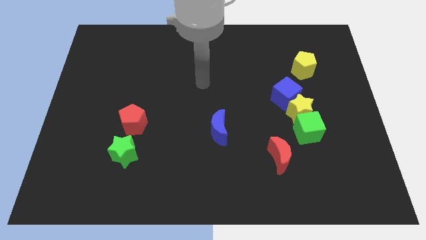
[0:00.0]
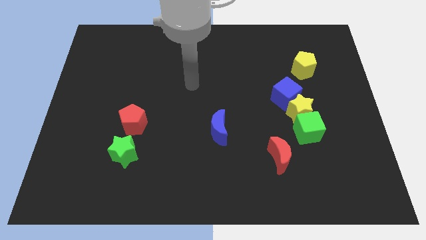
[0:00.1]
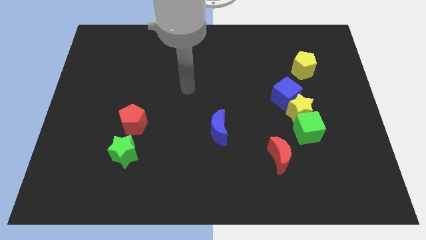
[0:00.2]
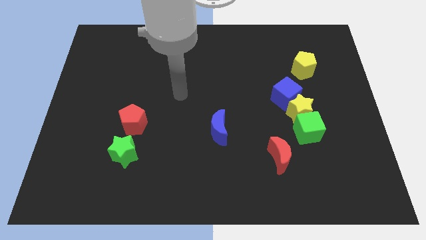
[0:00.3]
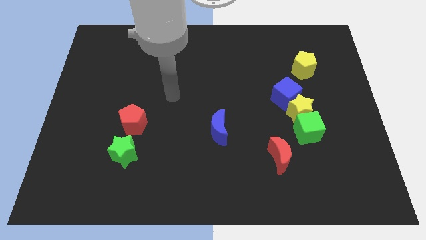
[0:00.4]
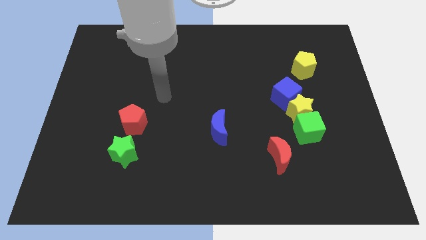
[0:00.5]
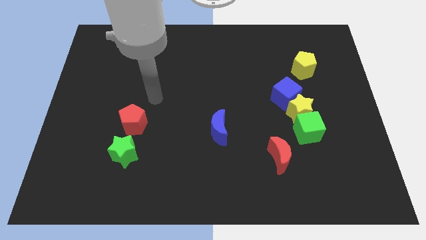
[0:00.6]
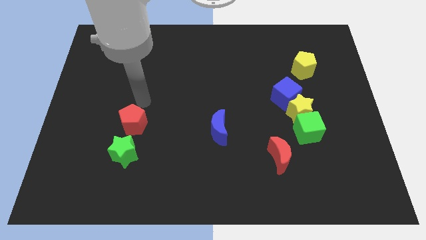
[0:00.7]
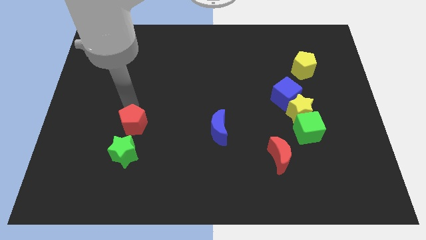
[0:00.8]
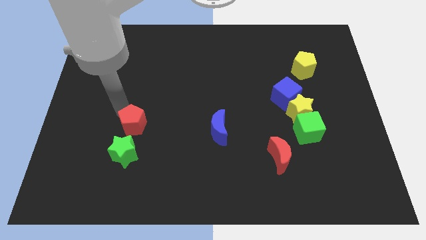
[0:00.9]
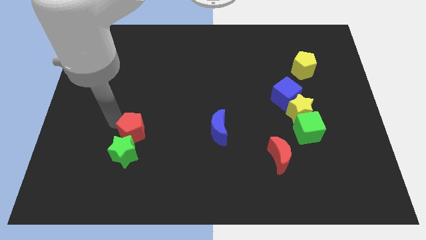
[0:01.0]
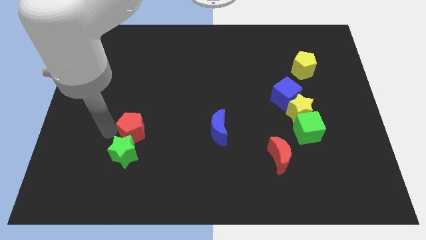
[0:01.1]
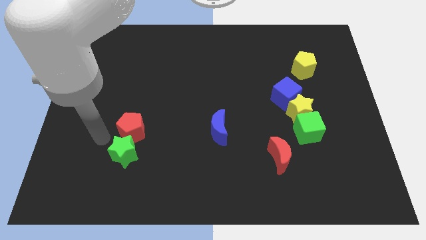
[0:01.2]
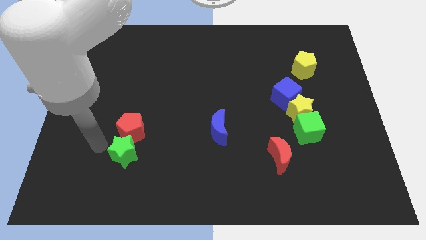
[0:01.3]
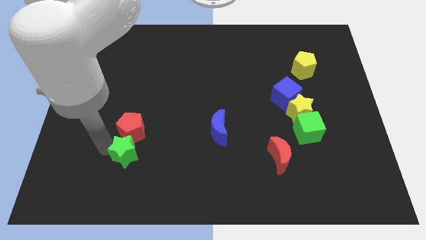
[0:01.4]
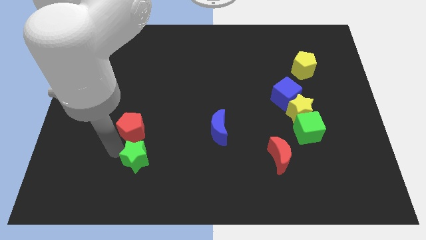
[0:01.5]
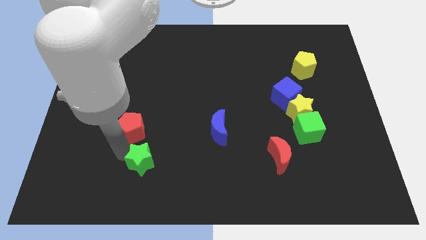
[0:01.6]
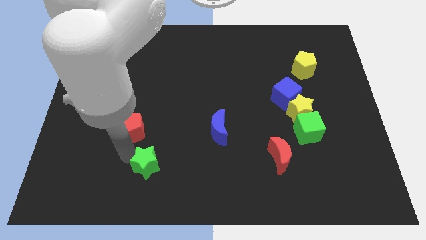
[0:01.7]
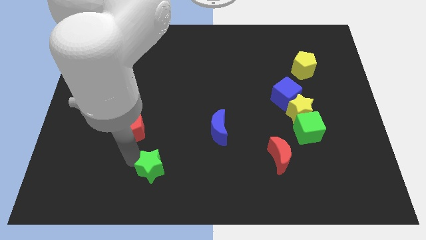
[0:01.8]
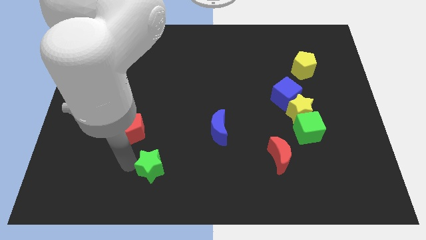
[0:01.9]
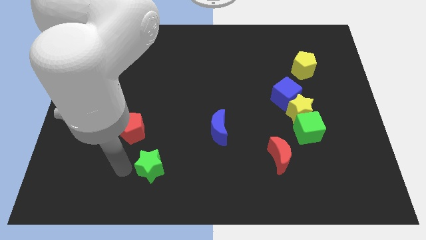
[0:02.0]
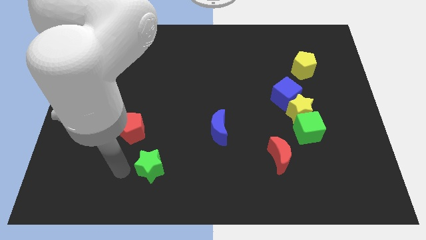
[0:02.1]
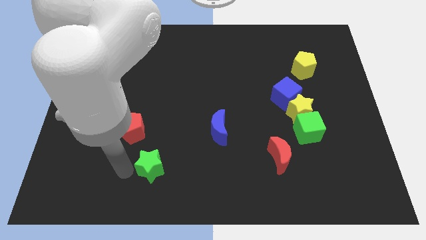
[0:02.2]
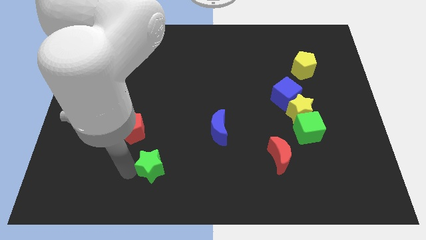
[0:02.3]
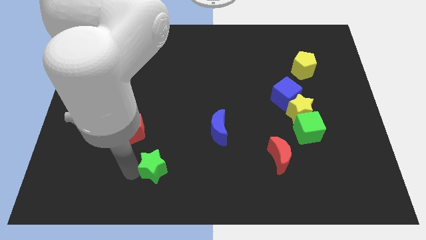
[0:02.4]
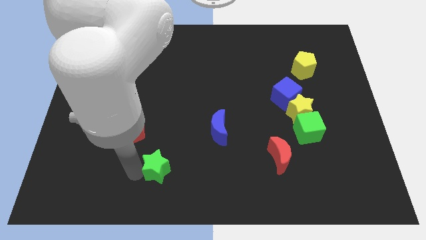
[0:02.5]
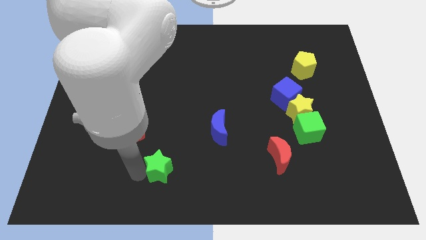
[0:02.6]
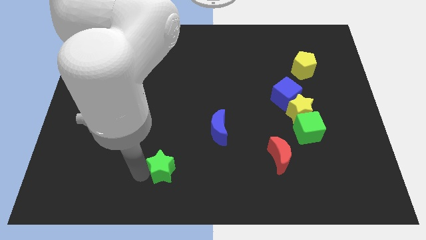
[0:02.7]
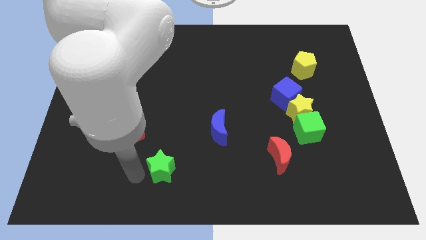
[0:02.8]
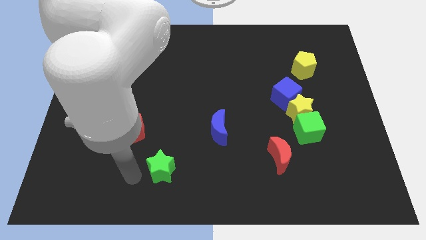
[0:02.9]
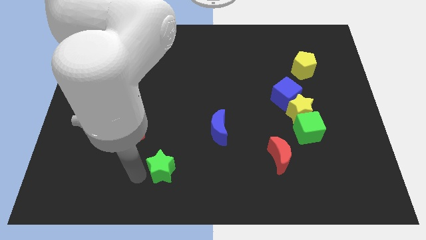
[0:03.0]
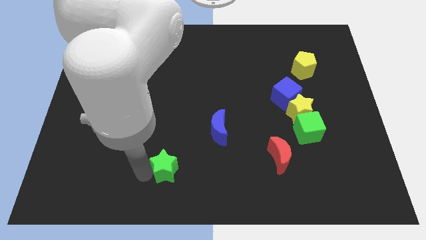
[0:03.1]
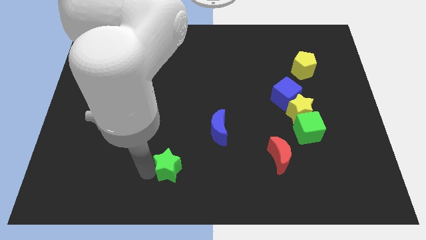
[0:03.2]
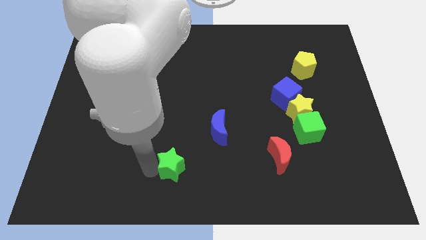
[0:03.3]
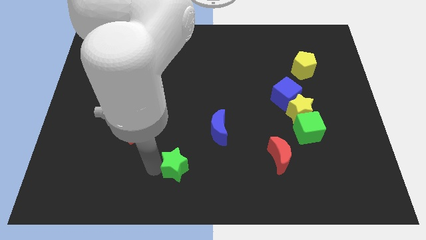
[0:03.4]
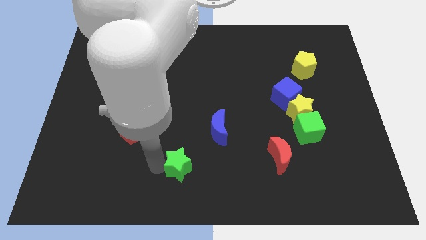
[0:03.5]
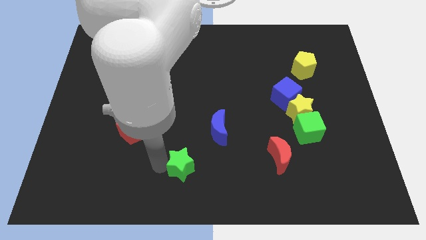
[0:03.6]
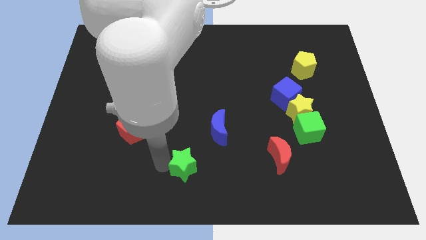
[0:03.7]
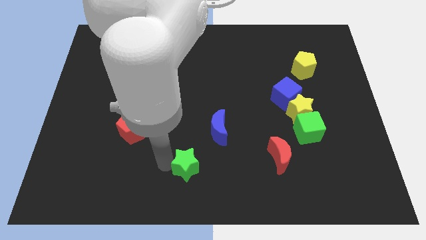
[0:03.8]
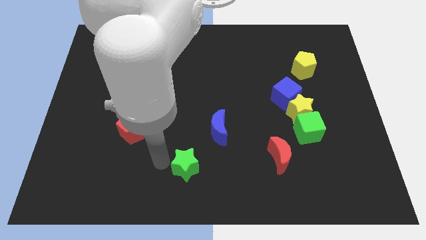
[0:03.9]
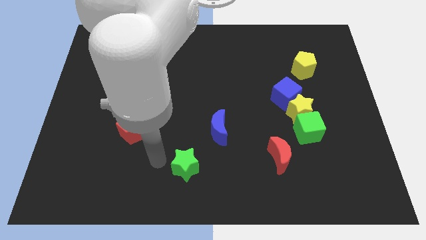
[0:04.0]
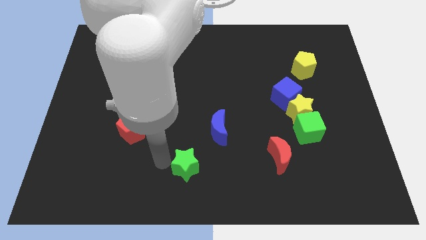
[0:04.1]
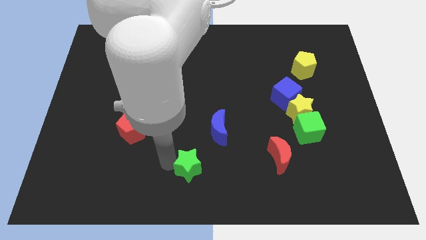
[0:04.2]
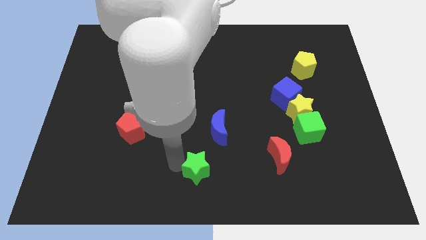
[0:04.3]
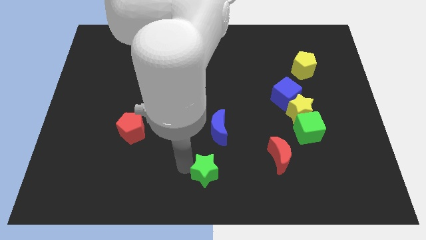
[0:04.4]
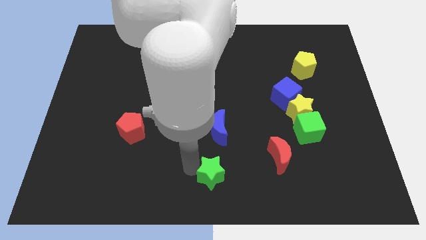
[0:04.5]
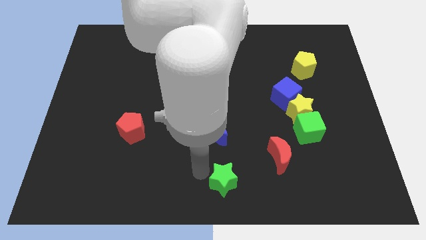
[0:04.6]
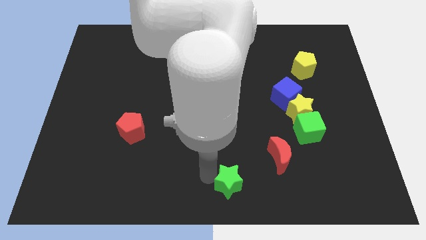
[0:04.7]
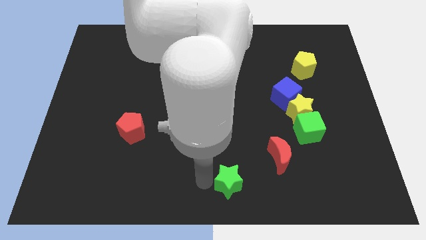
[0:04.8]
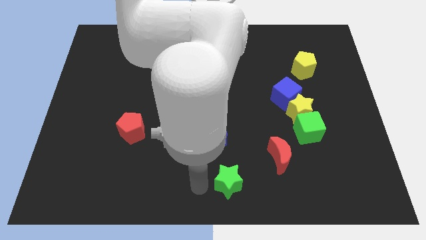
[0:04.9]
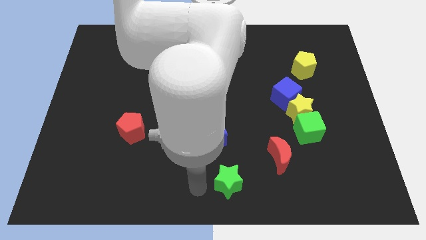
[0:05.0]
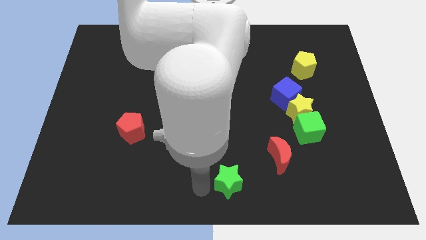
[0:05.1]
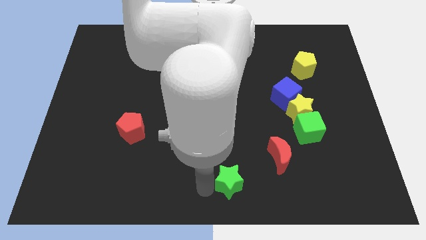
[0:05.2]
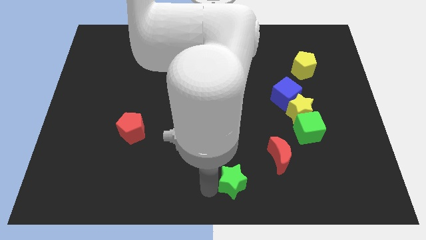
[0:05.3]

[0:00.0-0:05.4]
put the green star diagonally down and to the left of the red moon

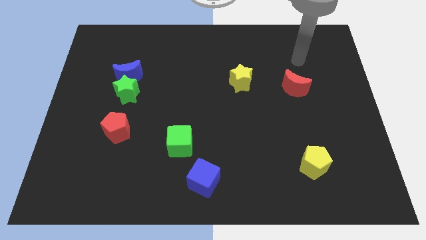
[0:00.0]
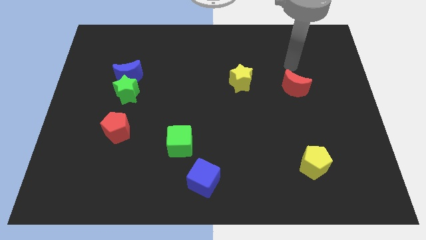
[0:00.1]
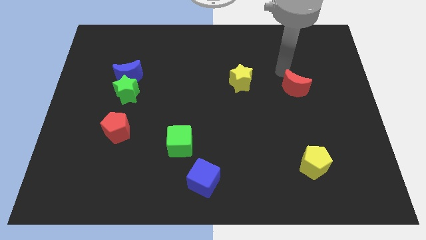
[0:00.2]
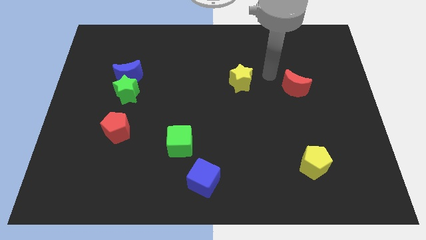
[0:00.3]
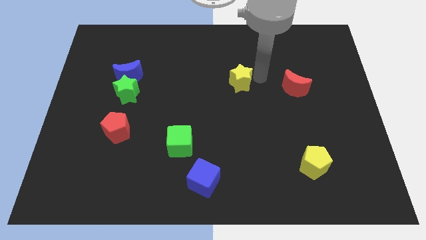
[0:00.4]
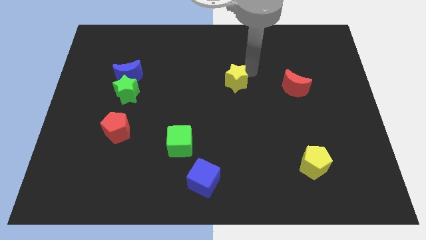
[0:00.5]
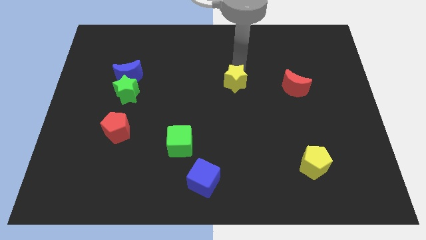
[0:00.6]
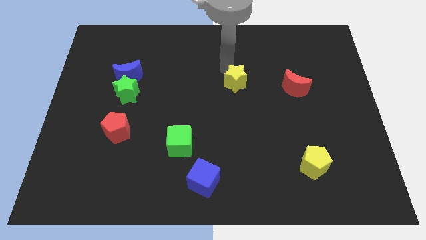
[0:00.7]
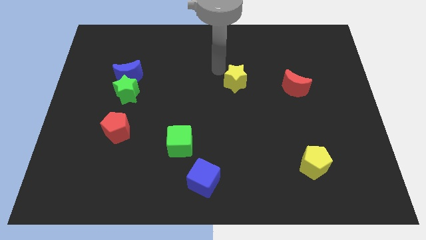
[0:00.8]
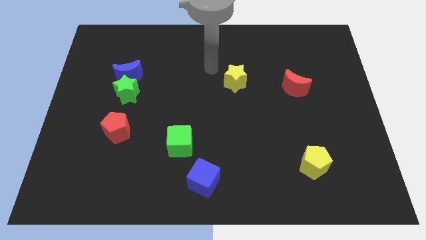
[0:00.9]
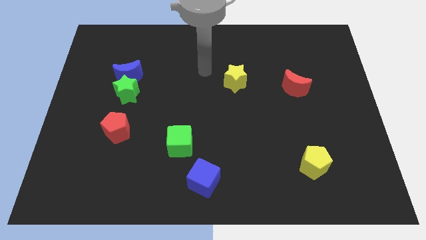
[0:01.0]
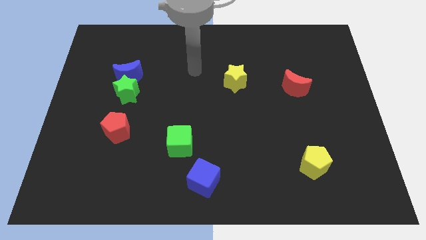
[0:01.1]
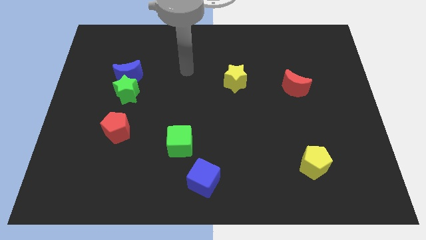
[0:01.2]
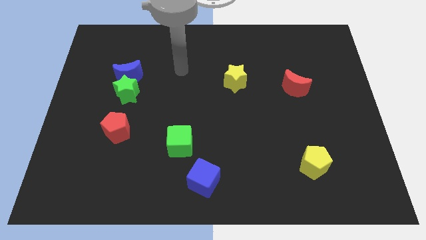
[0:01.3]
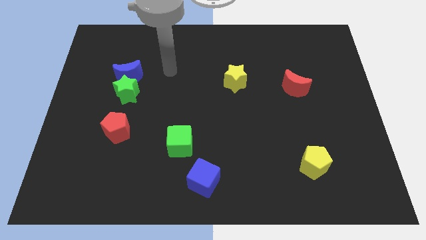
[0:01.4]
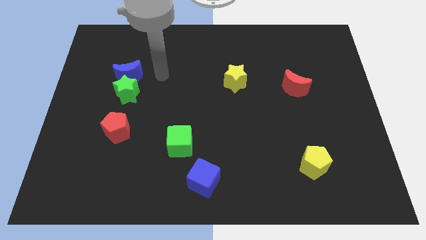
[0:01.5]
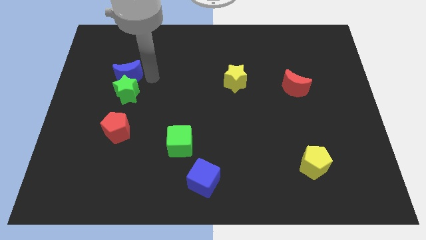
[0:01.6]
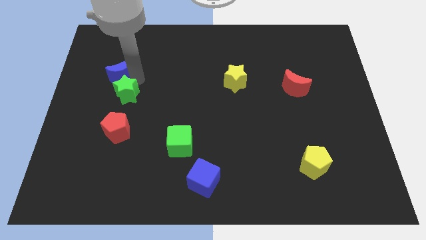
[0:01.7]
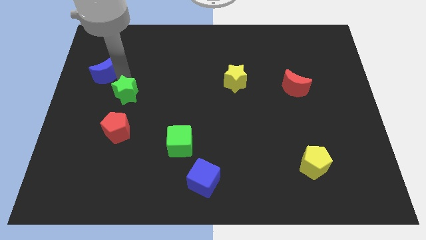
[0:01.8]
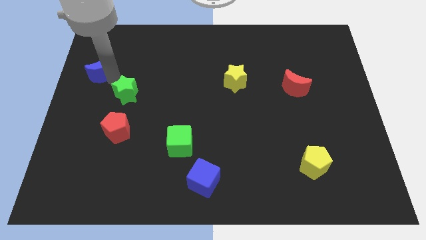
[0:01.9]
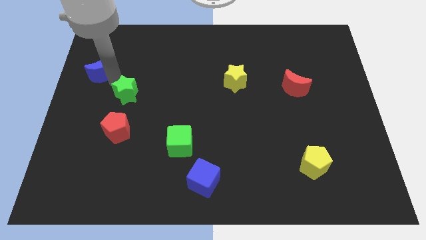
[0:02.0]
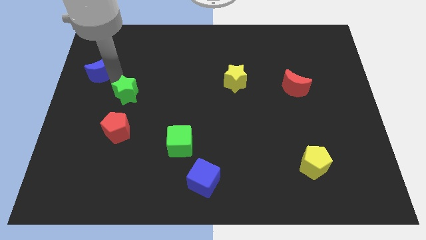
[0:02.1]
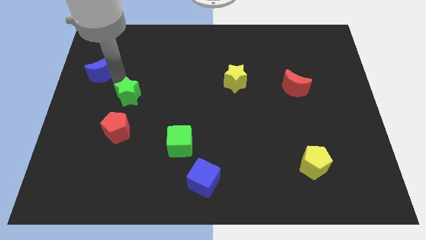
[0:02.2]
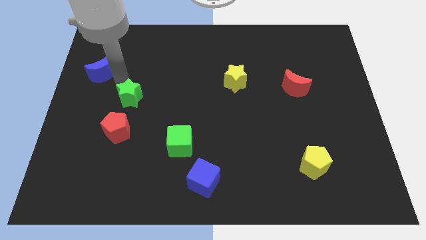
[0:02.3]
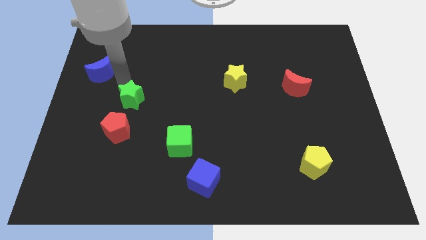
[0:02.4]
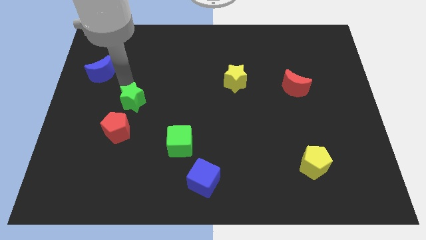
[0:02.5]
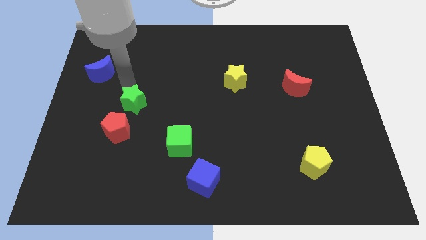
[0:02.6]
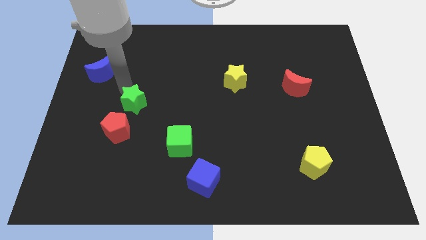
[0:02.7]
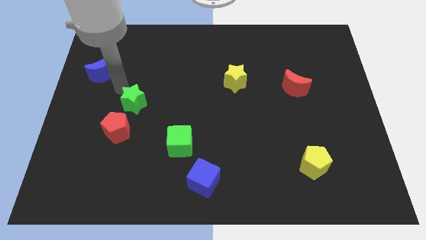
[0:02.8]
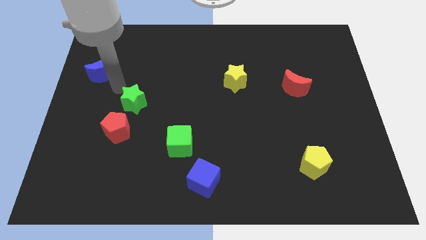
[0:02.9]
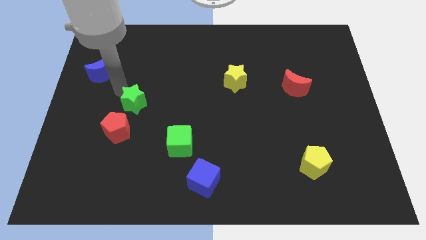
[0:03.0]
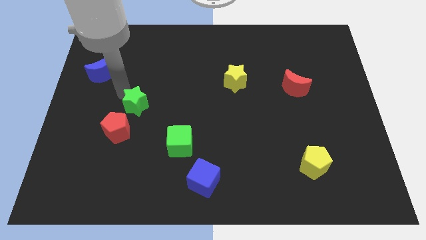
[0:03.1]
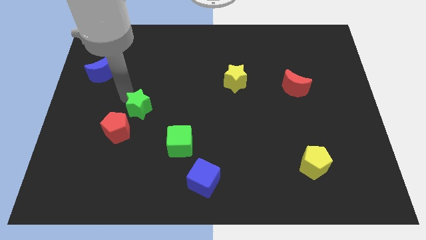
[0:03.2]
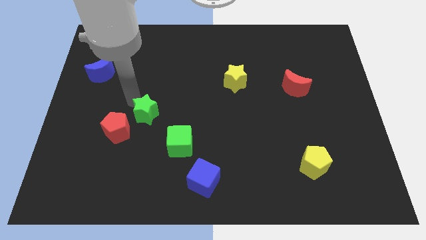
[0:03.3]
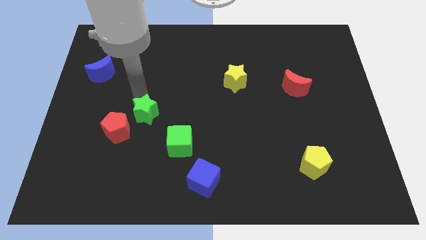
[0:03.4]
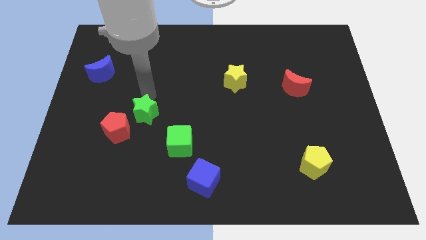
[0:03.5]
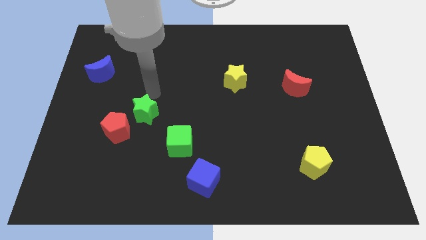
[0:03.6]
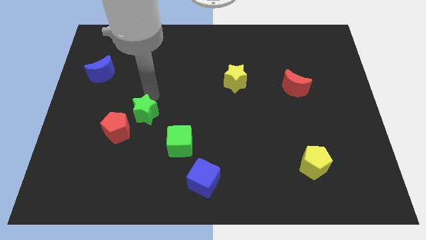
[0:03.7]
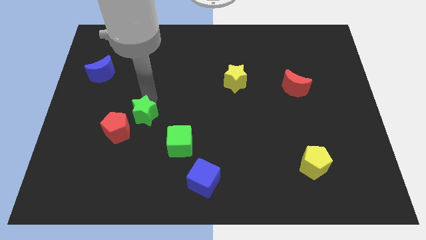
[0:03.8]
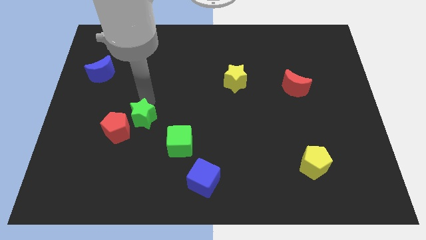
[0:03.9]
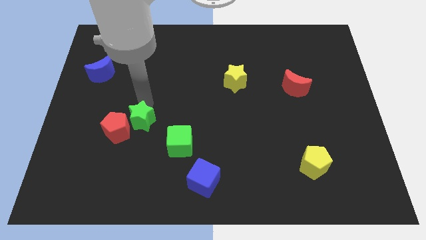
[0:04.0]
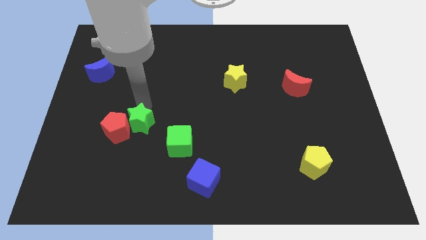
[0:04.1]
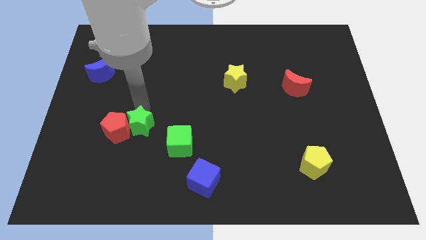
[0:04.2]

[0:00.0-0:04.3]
move the green star to the left side of the green cube
